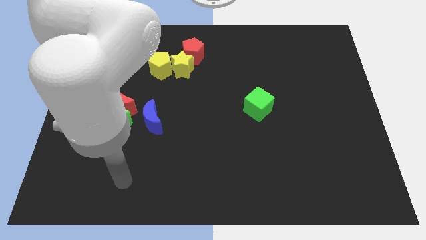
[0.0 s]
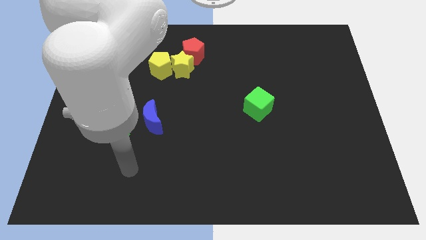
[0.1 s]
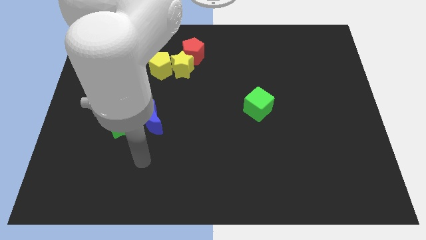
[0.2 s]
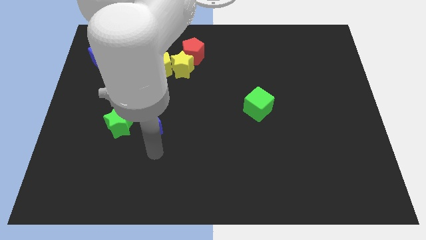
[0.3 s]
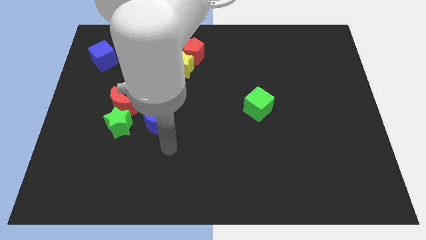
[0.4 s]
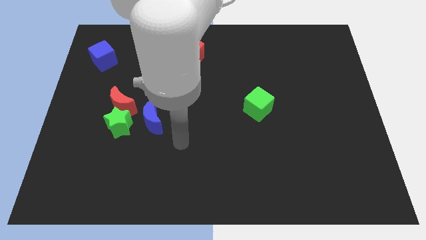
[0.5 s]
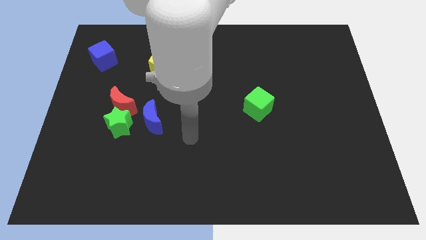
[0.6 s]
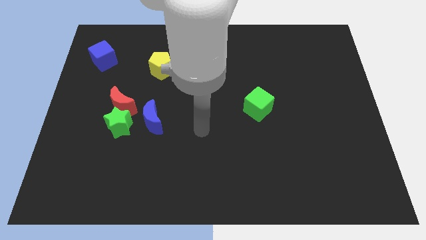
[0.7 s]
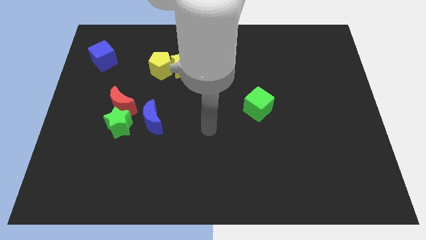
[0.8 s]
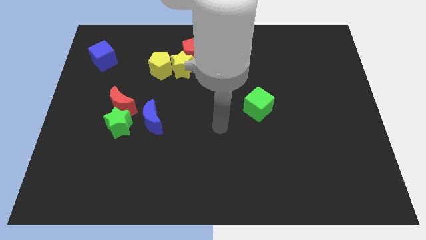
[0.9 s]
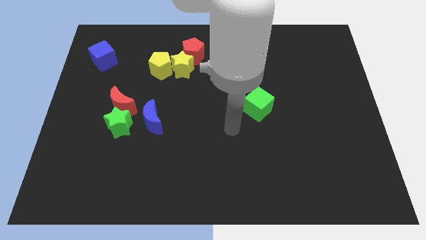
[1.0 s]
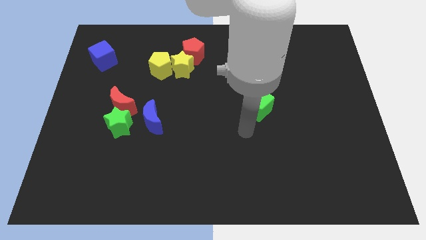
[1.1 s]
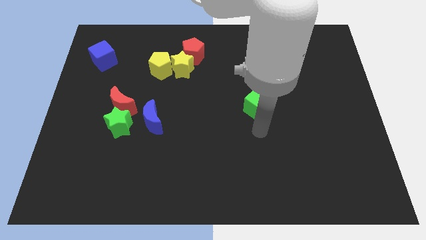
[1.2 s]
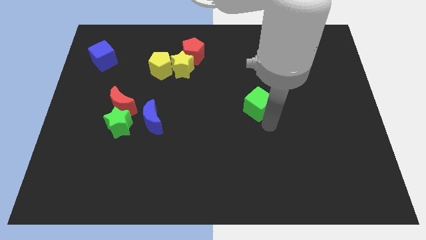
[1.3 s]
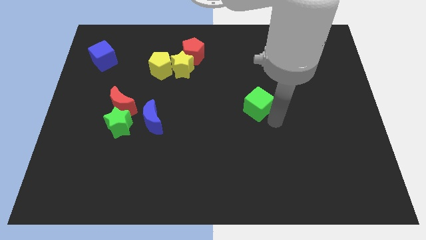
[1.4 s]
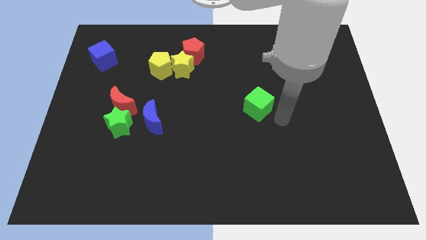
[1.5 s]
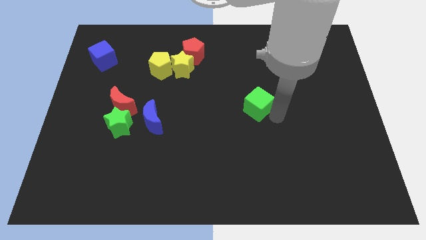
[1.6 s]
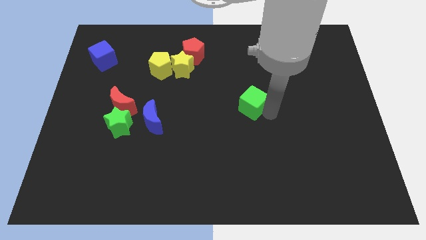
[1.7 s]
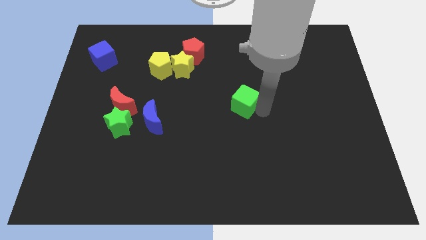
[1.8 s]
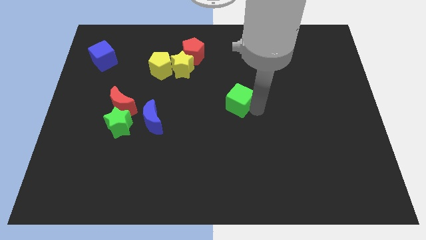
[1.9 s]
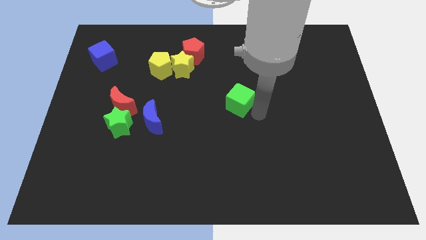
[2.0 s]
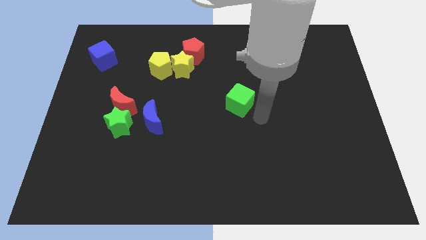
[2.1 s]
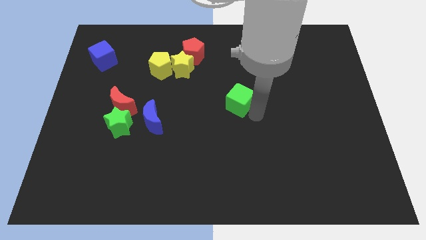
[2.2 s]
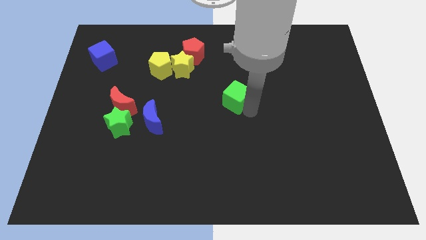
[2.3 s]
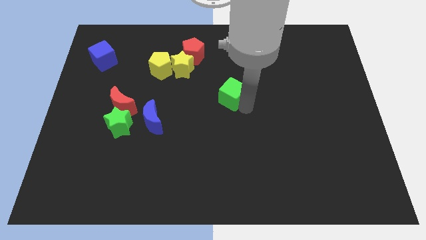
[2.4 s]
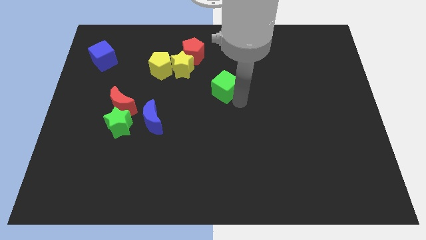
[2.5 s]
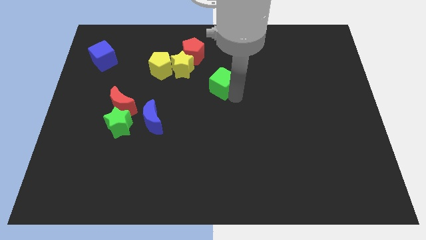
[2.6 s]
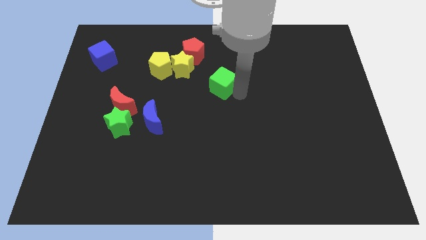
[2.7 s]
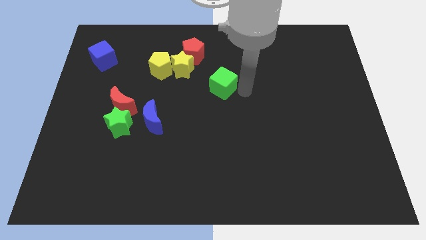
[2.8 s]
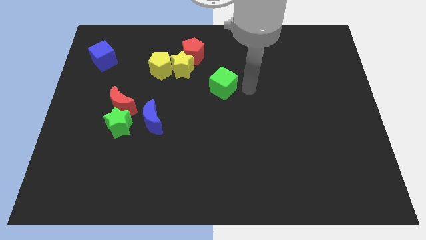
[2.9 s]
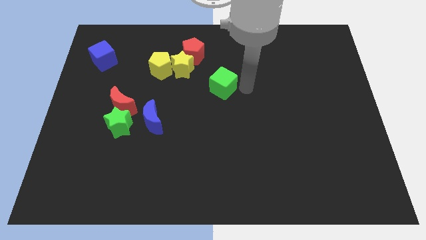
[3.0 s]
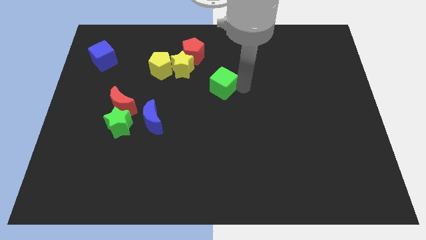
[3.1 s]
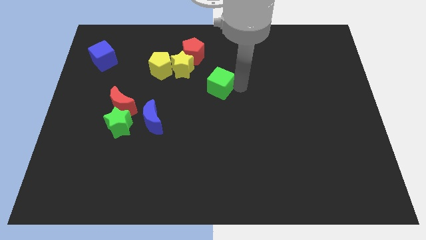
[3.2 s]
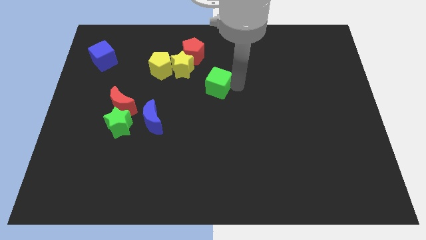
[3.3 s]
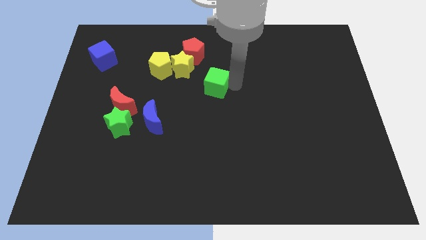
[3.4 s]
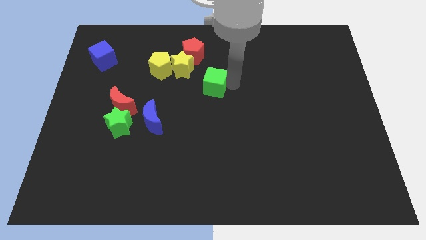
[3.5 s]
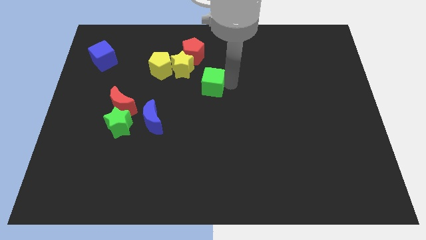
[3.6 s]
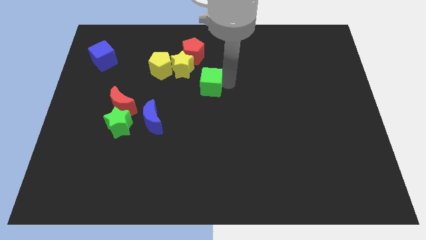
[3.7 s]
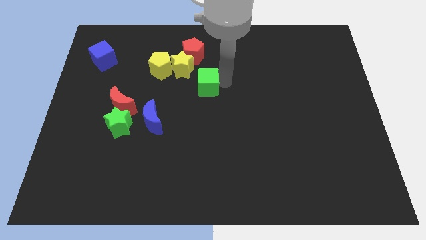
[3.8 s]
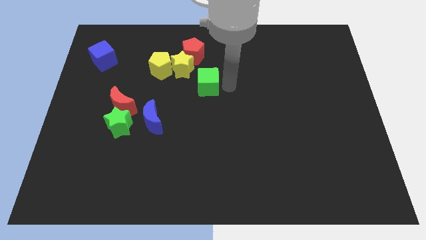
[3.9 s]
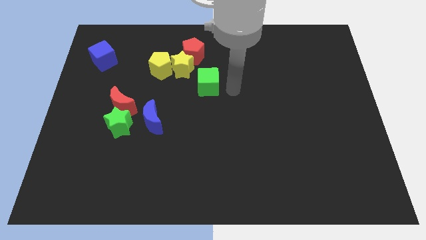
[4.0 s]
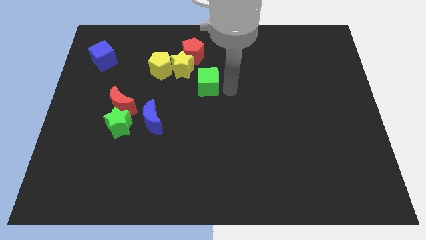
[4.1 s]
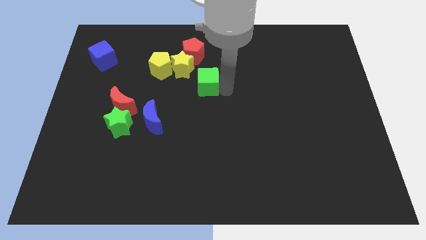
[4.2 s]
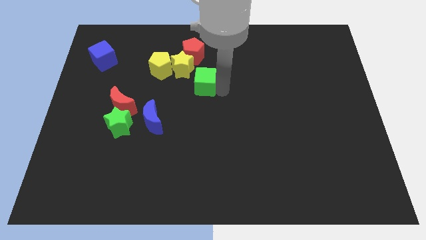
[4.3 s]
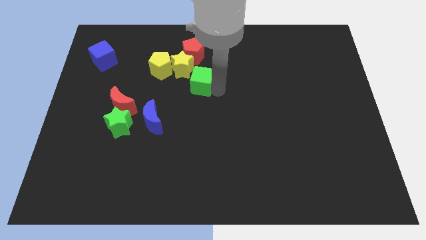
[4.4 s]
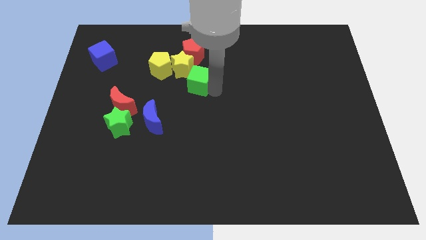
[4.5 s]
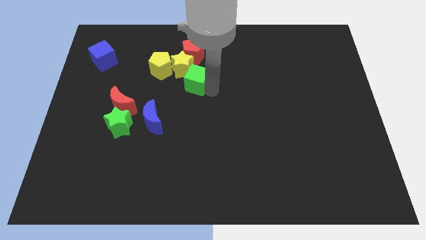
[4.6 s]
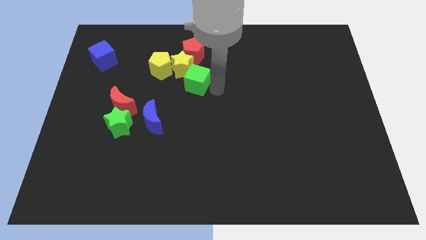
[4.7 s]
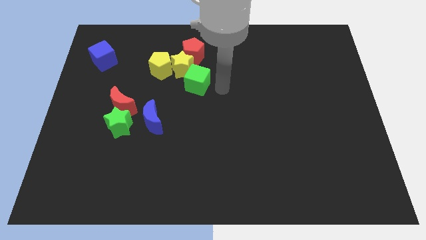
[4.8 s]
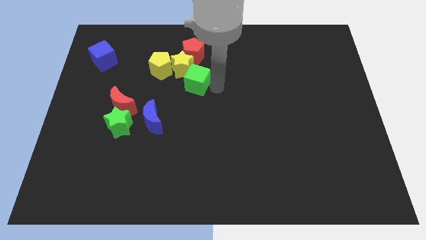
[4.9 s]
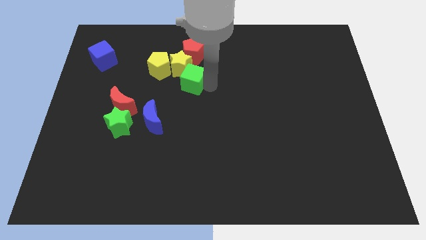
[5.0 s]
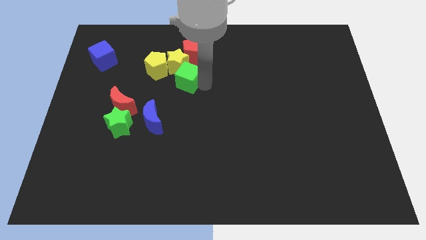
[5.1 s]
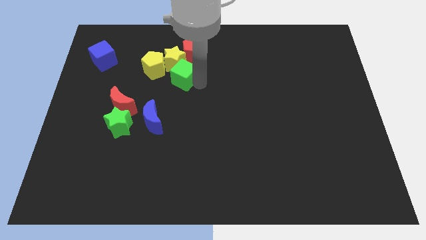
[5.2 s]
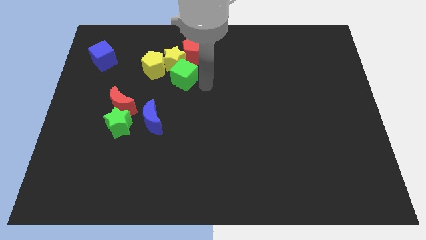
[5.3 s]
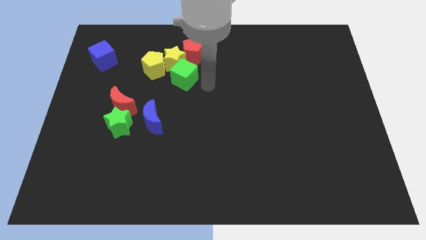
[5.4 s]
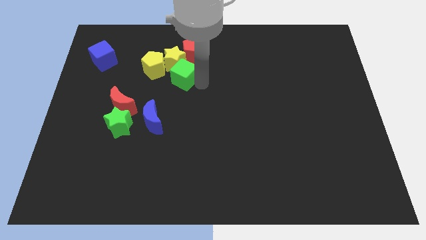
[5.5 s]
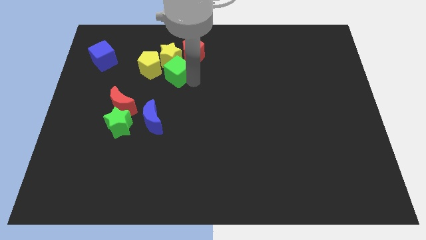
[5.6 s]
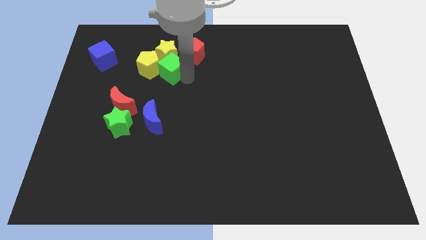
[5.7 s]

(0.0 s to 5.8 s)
put the green cube close to the yellow pentagon

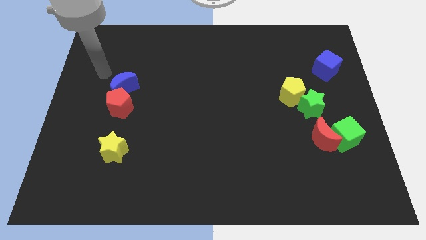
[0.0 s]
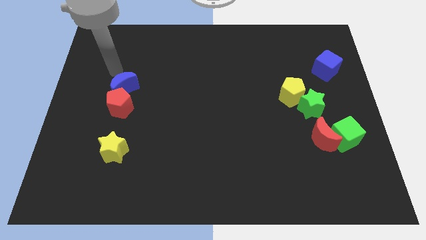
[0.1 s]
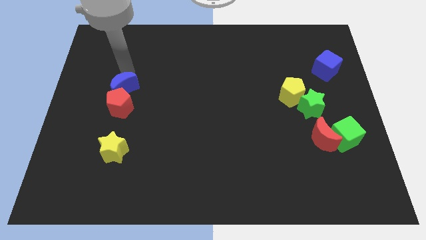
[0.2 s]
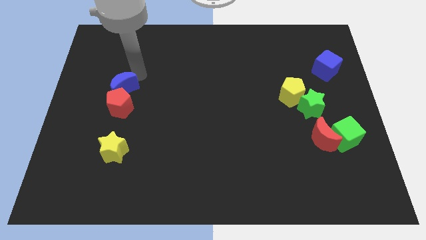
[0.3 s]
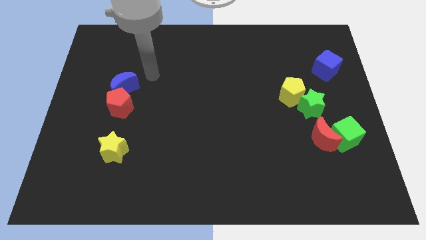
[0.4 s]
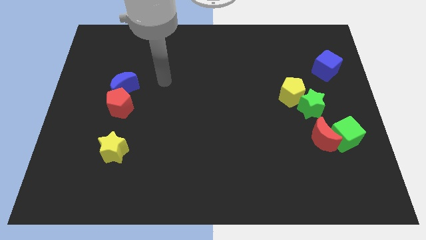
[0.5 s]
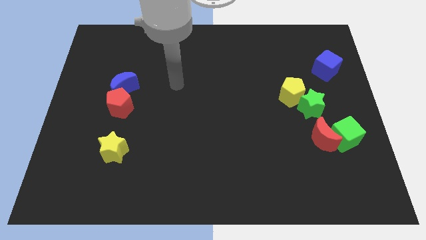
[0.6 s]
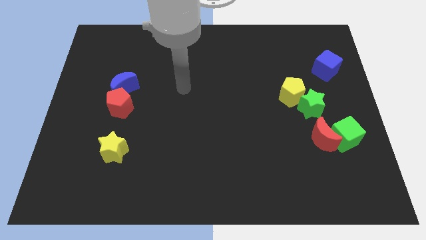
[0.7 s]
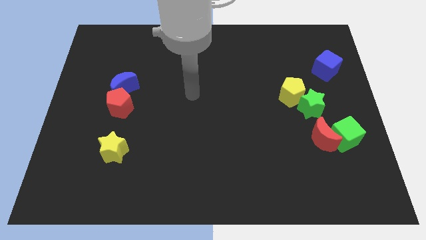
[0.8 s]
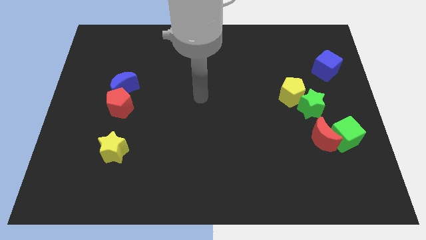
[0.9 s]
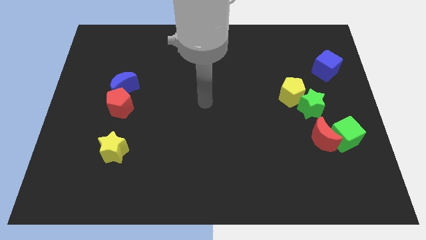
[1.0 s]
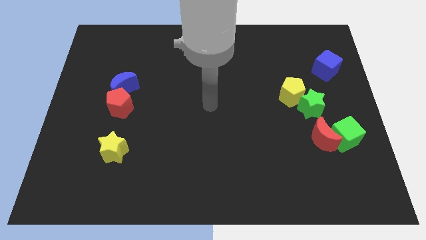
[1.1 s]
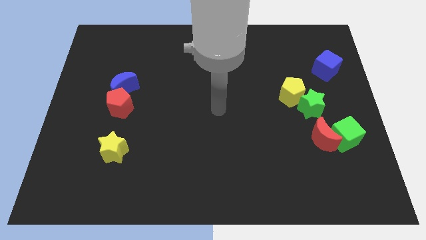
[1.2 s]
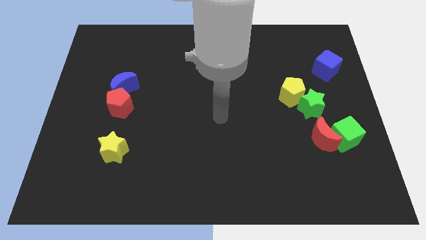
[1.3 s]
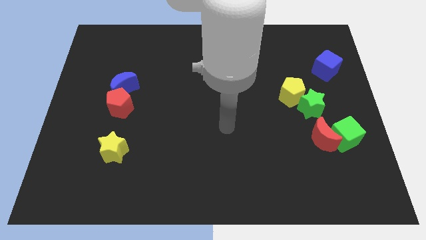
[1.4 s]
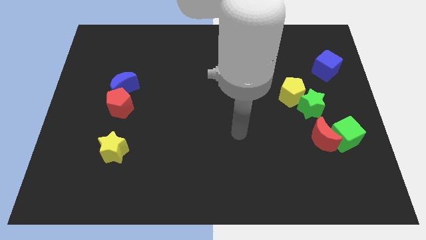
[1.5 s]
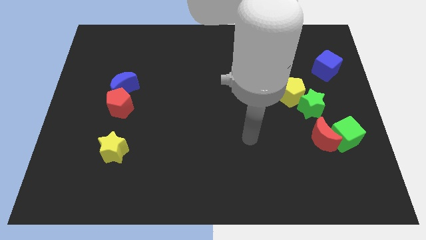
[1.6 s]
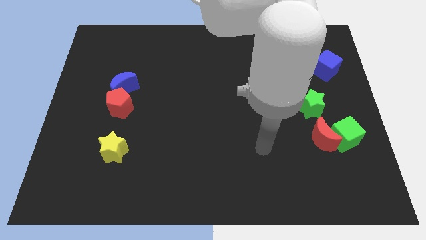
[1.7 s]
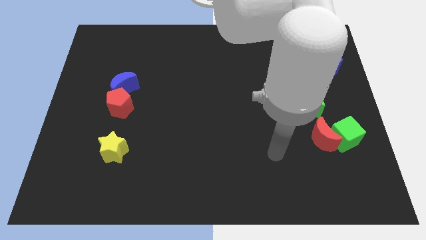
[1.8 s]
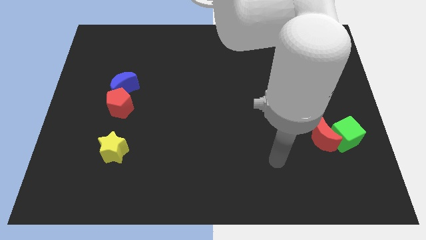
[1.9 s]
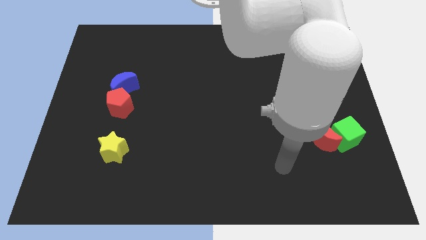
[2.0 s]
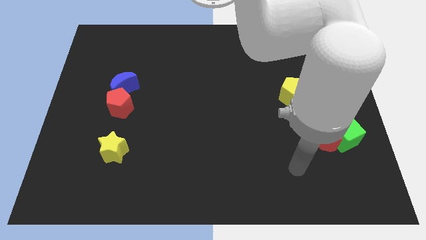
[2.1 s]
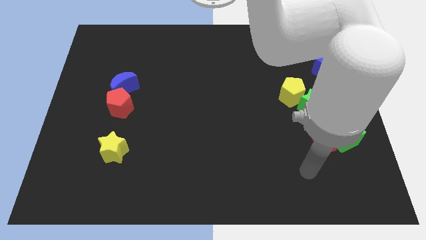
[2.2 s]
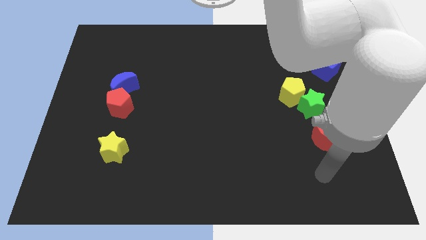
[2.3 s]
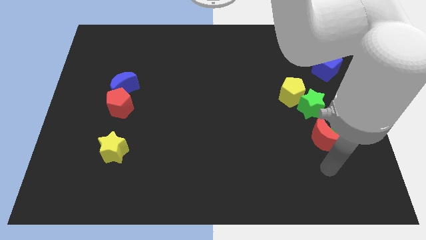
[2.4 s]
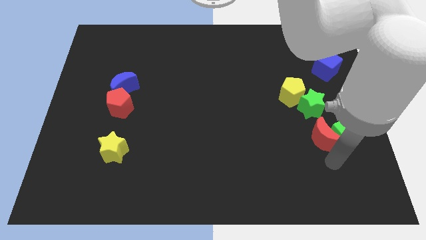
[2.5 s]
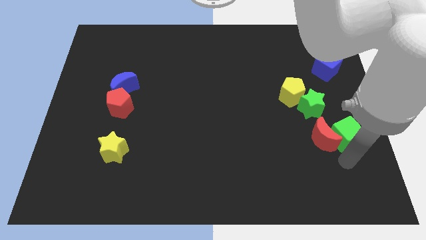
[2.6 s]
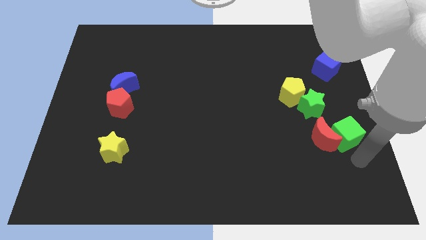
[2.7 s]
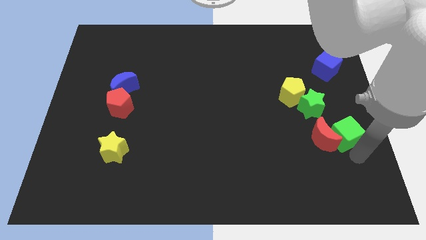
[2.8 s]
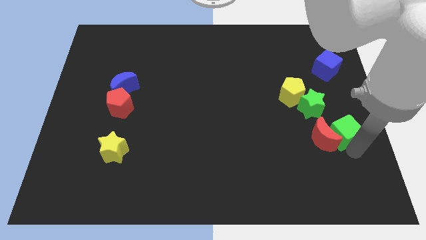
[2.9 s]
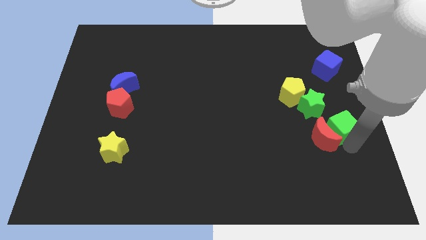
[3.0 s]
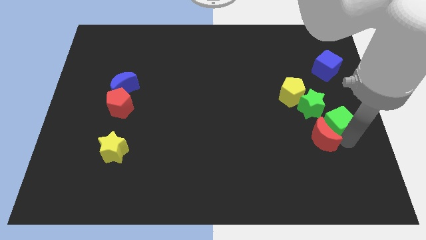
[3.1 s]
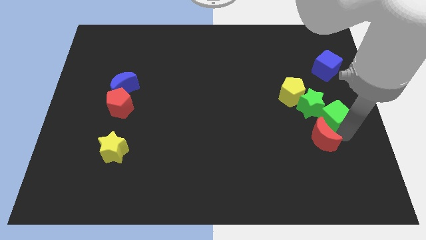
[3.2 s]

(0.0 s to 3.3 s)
move the green cube to the green star
